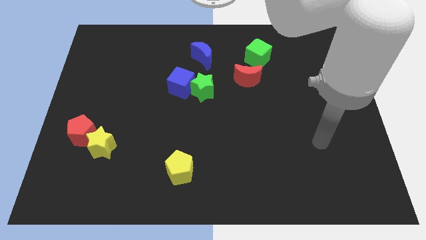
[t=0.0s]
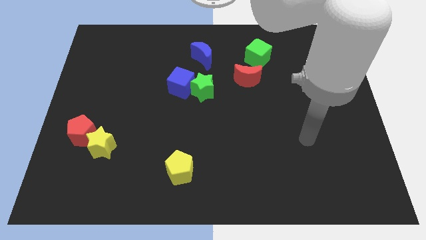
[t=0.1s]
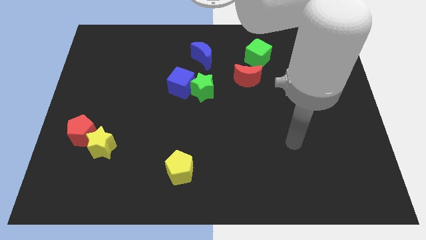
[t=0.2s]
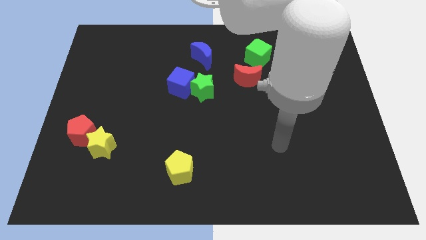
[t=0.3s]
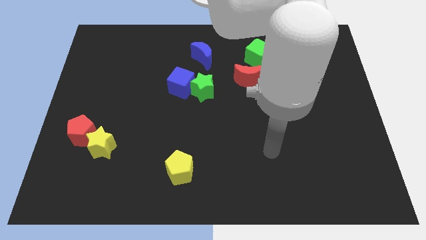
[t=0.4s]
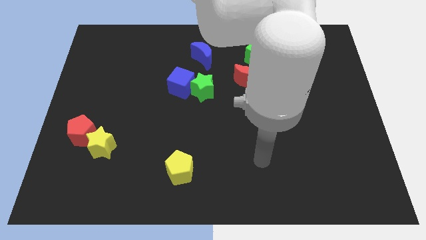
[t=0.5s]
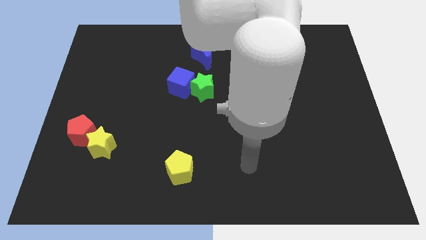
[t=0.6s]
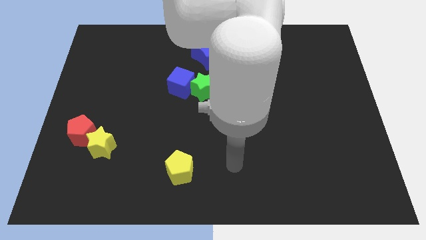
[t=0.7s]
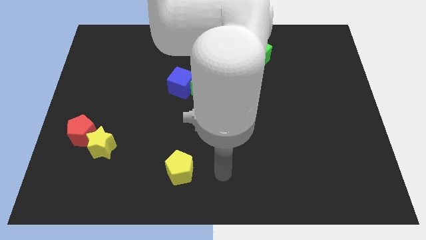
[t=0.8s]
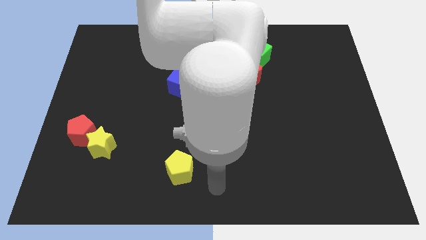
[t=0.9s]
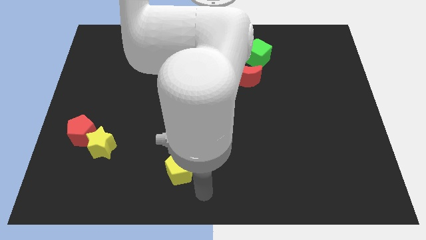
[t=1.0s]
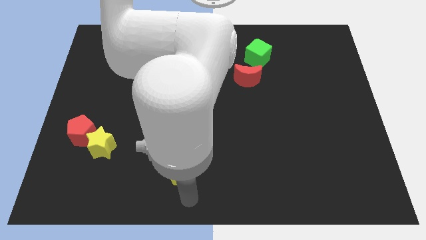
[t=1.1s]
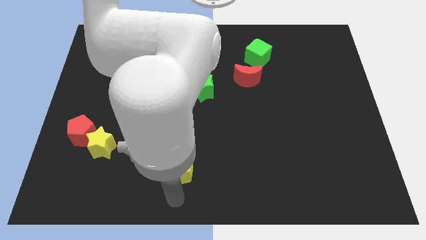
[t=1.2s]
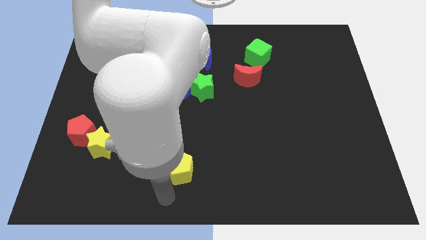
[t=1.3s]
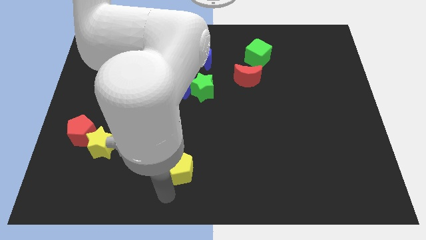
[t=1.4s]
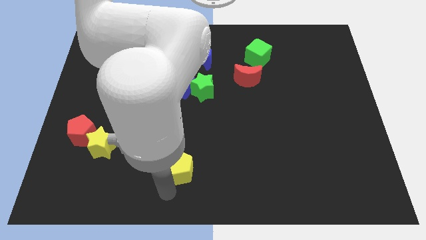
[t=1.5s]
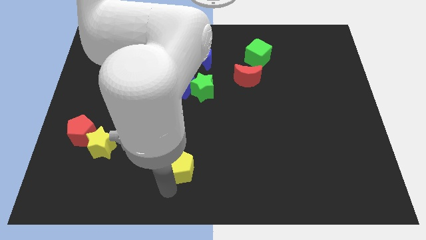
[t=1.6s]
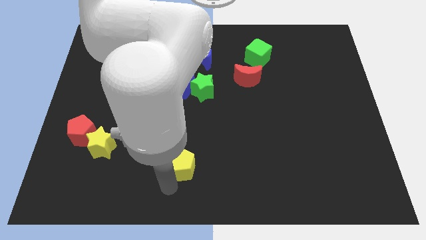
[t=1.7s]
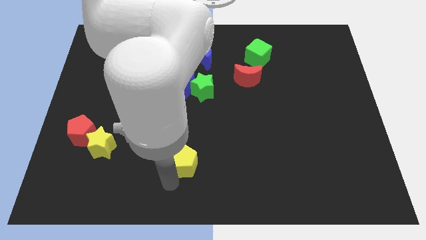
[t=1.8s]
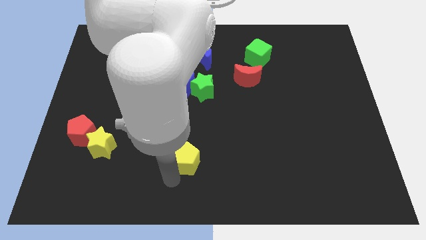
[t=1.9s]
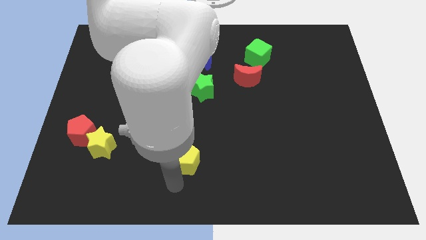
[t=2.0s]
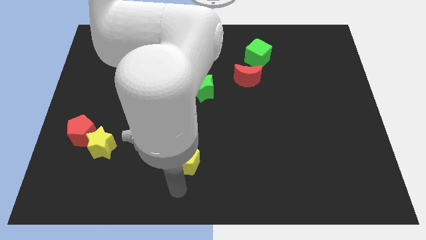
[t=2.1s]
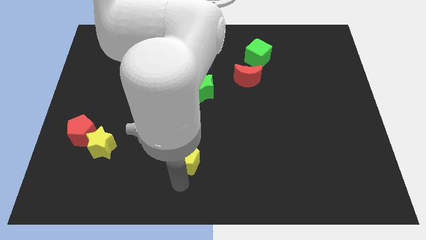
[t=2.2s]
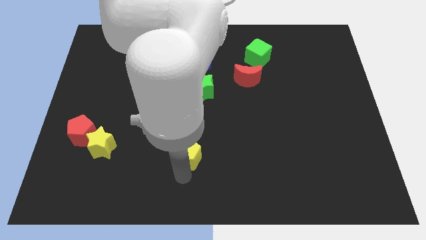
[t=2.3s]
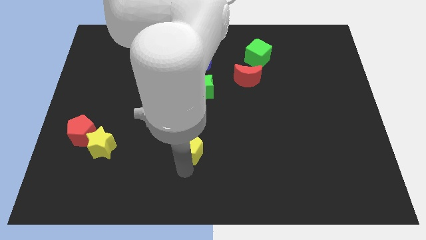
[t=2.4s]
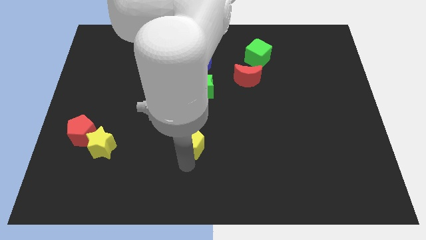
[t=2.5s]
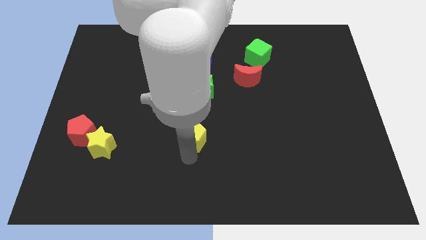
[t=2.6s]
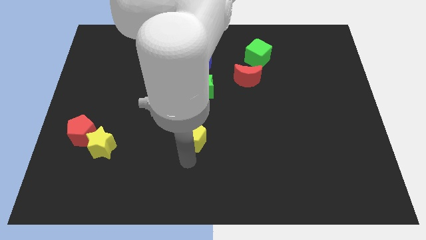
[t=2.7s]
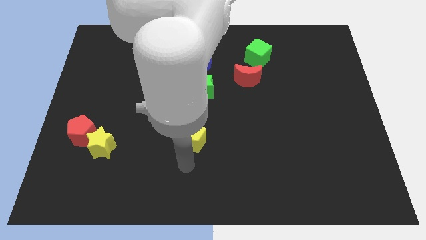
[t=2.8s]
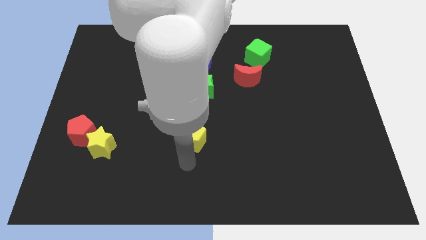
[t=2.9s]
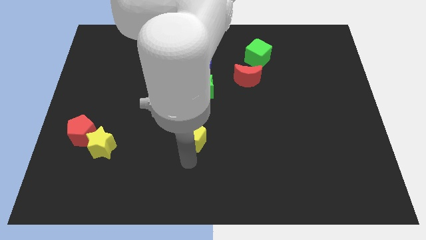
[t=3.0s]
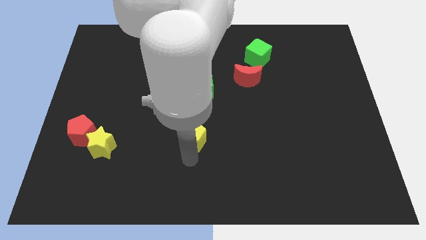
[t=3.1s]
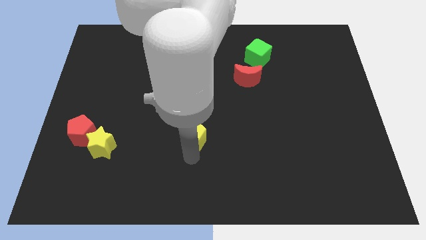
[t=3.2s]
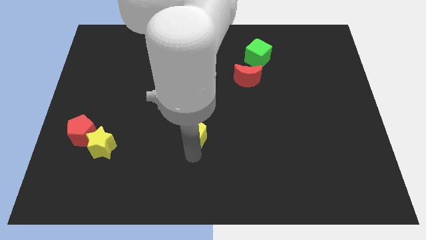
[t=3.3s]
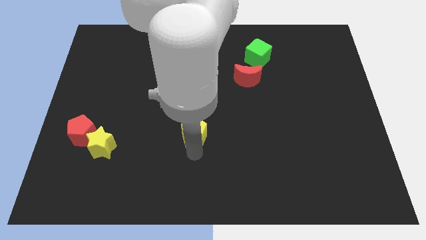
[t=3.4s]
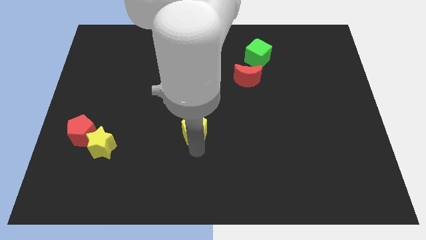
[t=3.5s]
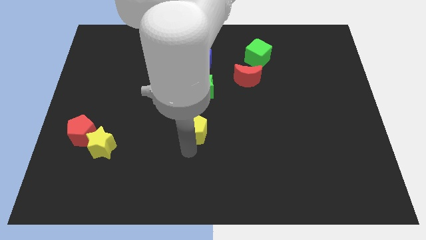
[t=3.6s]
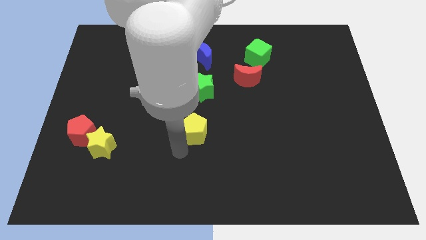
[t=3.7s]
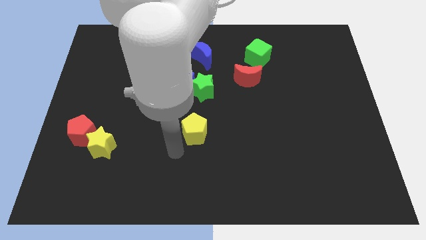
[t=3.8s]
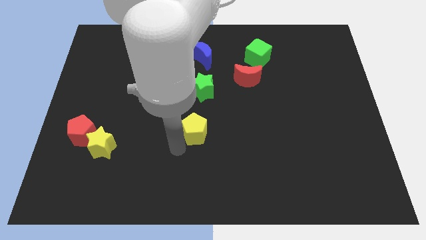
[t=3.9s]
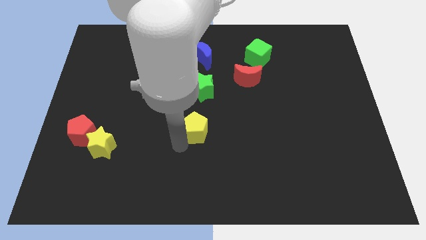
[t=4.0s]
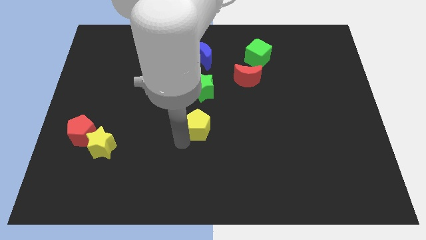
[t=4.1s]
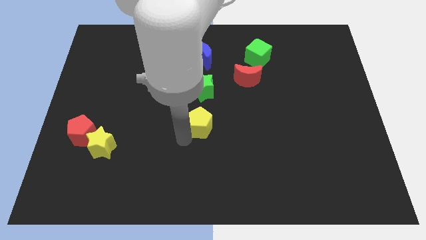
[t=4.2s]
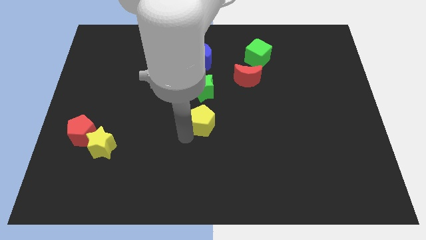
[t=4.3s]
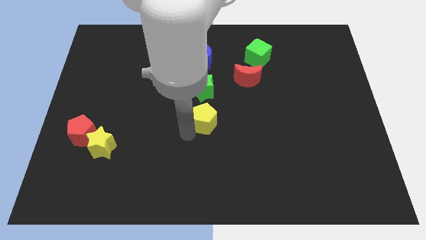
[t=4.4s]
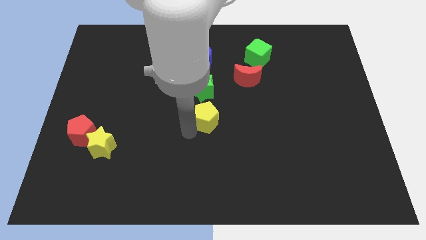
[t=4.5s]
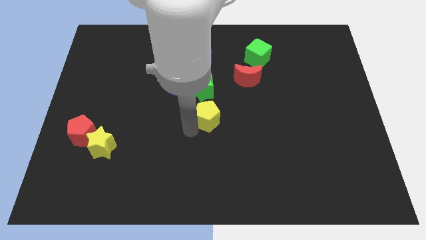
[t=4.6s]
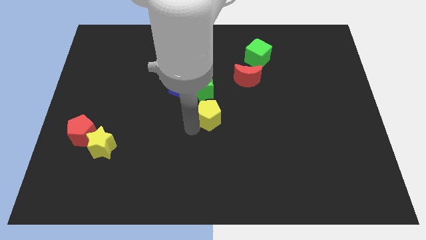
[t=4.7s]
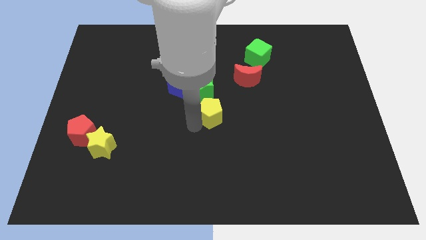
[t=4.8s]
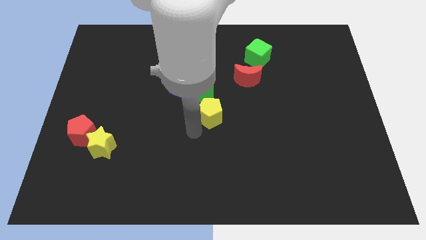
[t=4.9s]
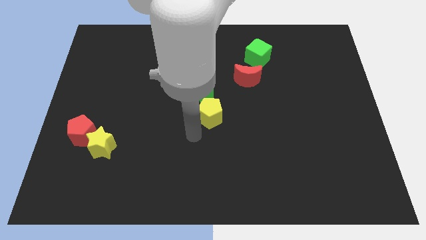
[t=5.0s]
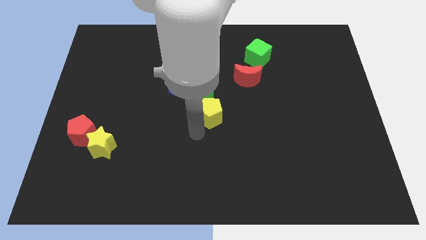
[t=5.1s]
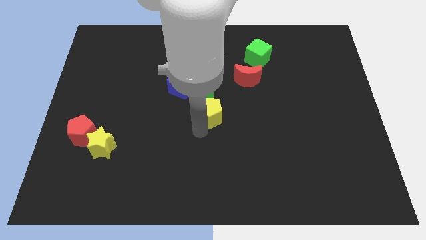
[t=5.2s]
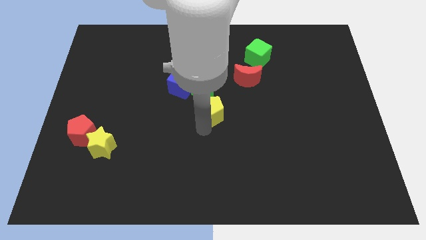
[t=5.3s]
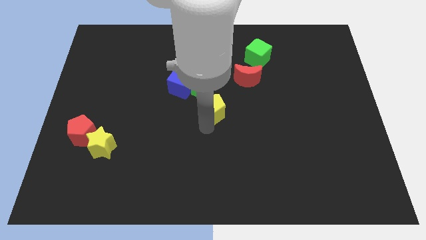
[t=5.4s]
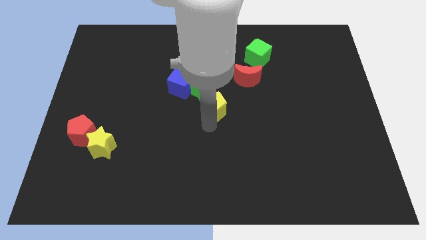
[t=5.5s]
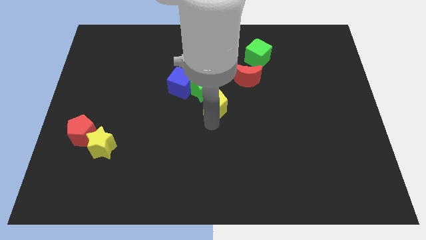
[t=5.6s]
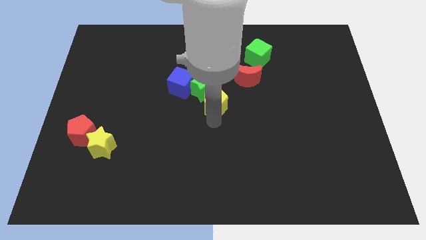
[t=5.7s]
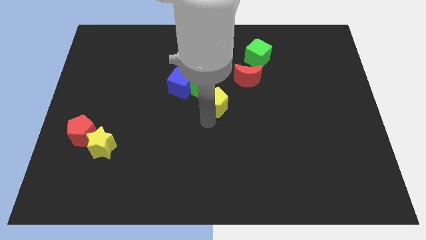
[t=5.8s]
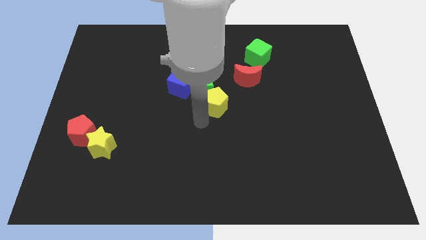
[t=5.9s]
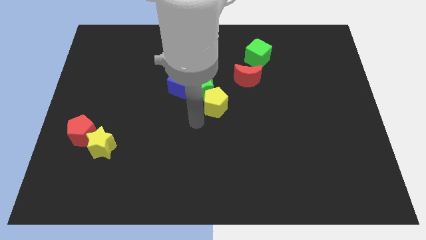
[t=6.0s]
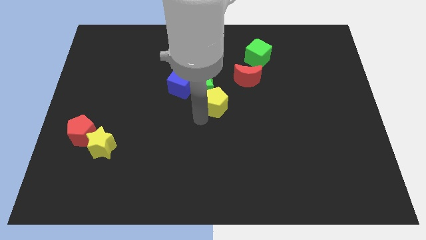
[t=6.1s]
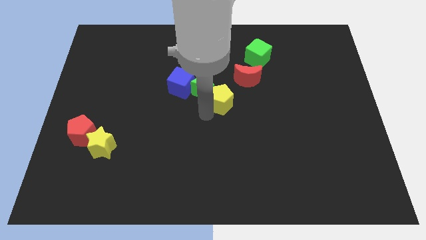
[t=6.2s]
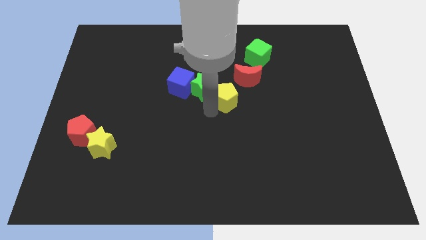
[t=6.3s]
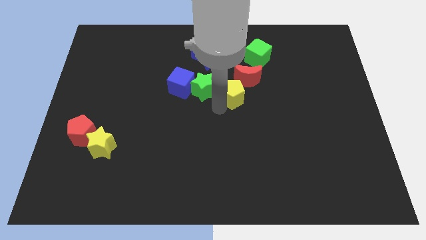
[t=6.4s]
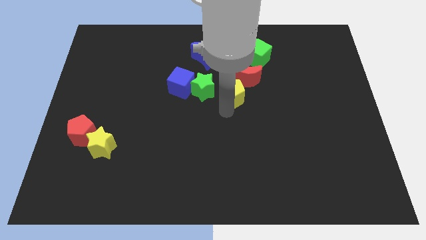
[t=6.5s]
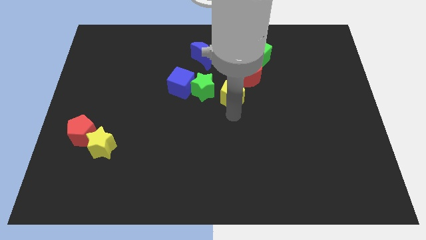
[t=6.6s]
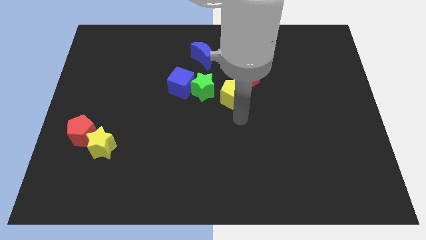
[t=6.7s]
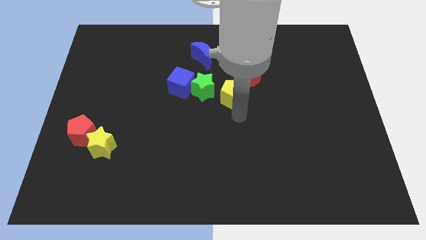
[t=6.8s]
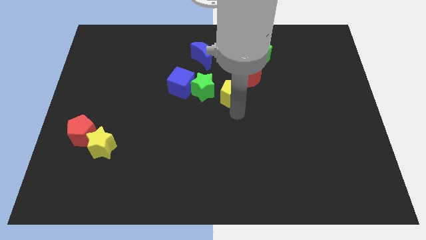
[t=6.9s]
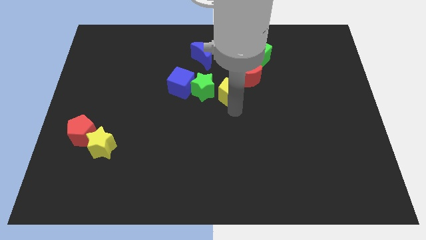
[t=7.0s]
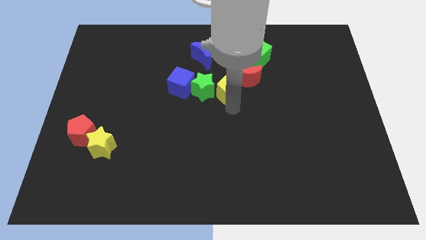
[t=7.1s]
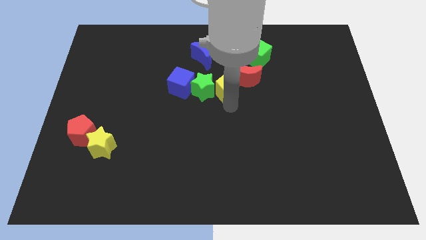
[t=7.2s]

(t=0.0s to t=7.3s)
slide the yellow pentagon to the top right side of the green star
